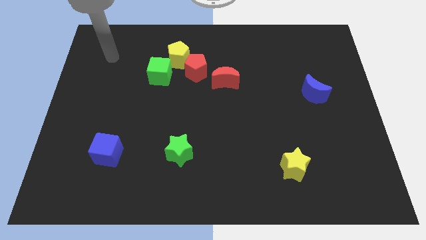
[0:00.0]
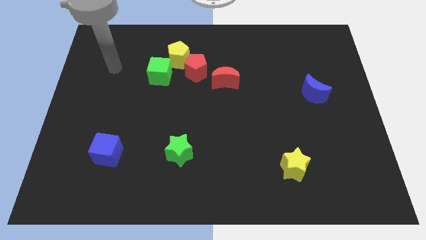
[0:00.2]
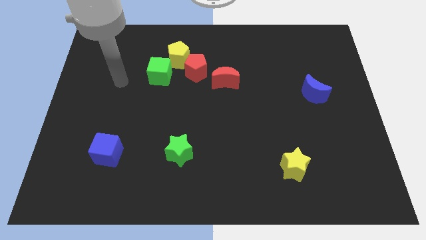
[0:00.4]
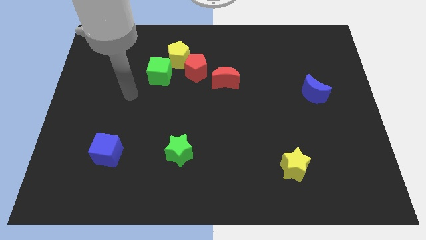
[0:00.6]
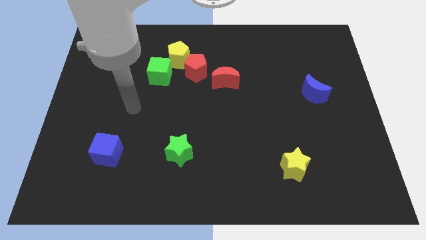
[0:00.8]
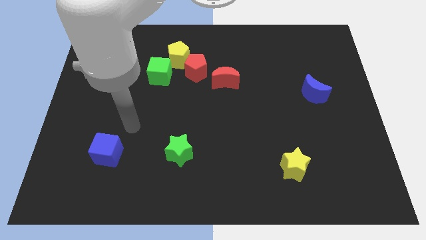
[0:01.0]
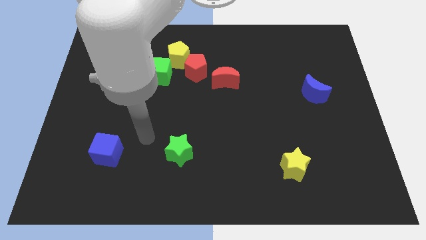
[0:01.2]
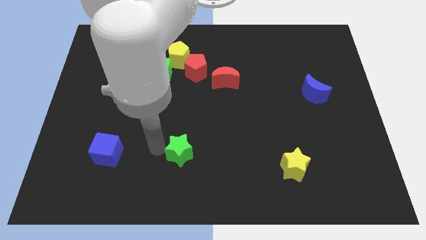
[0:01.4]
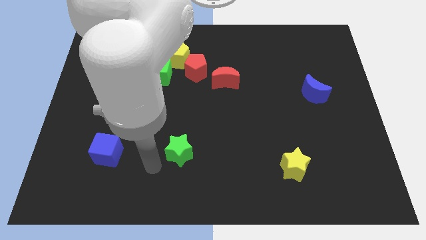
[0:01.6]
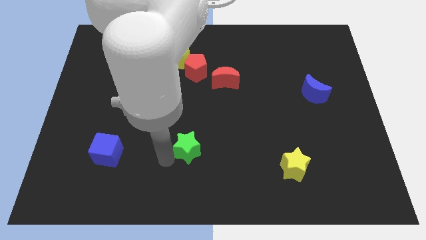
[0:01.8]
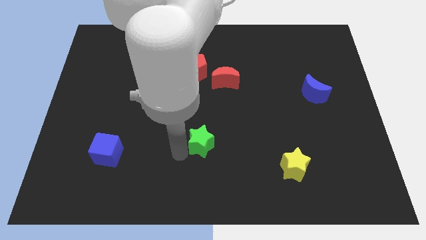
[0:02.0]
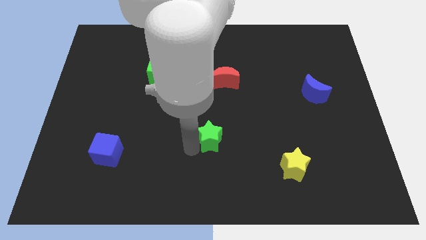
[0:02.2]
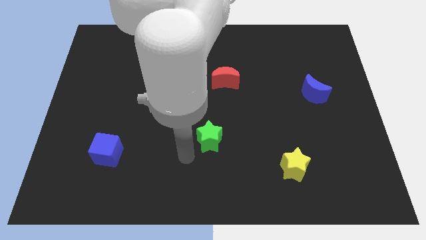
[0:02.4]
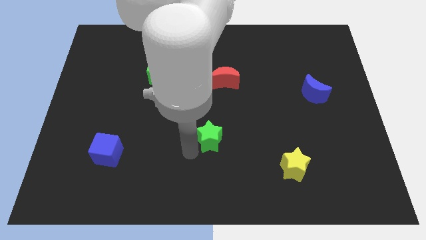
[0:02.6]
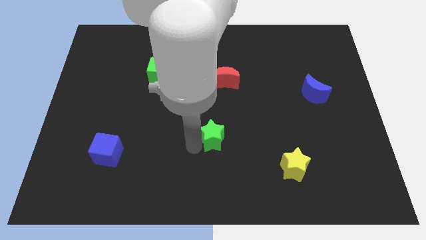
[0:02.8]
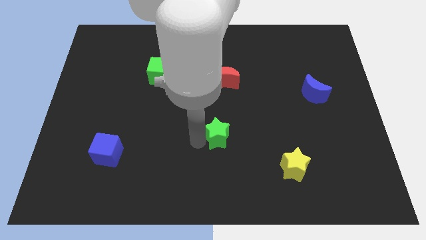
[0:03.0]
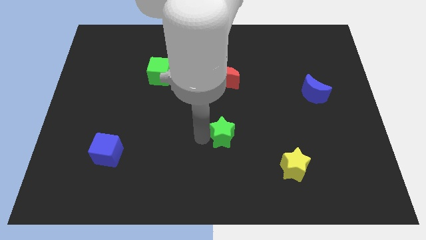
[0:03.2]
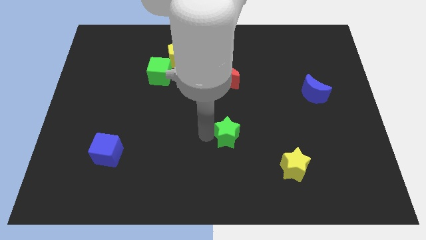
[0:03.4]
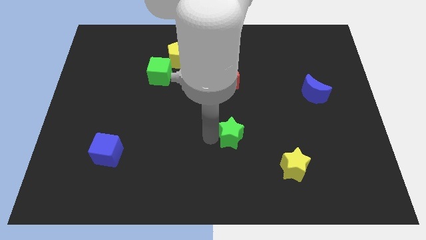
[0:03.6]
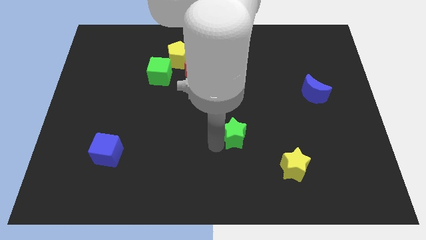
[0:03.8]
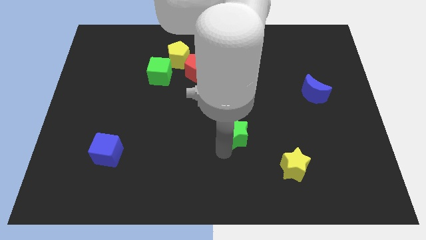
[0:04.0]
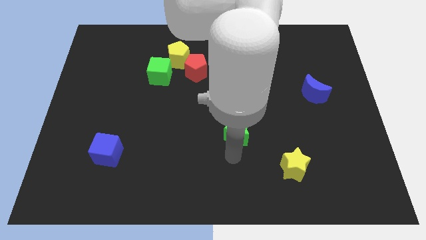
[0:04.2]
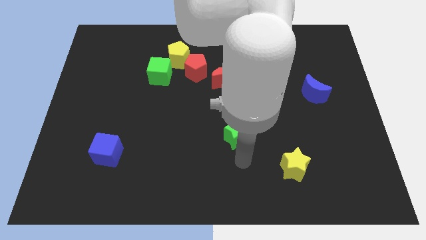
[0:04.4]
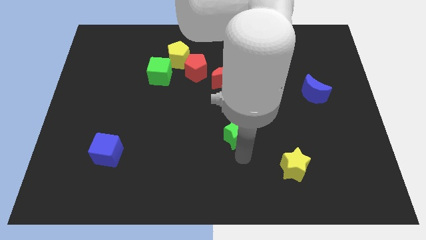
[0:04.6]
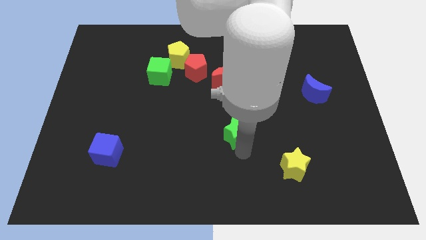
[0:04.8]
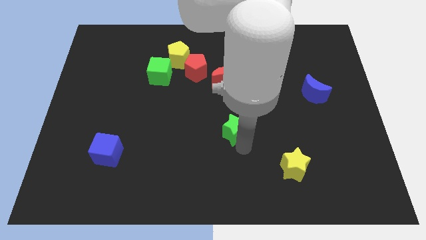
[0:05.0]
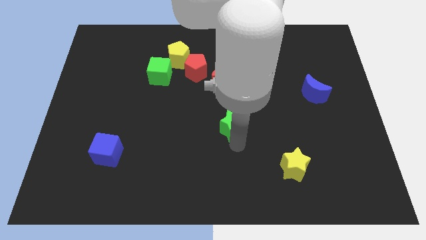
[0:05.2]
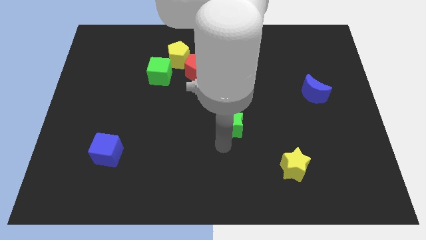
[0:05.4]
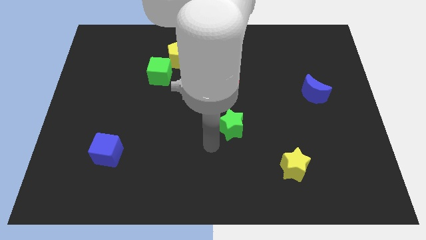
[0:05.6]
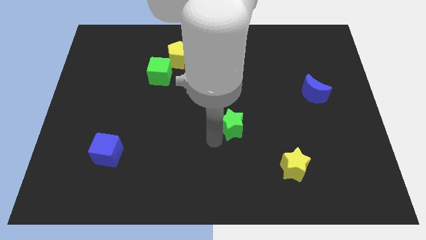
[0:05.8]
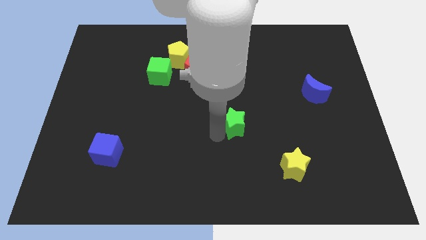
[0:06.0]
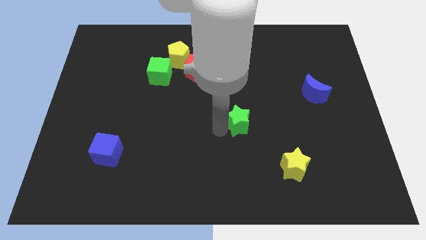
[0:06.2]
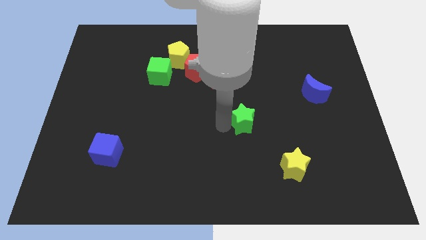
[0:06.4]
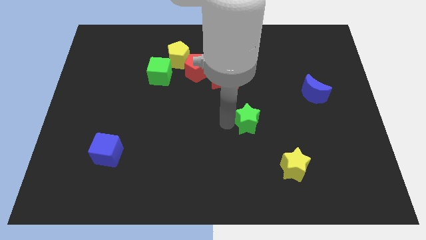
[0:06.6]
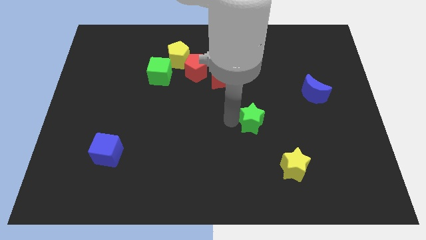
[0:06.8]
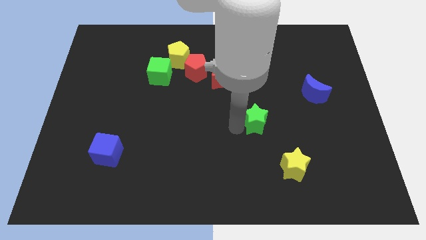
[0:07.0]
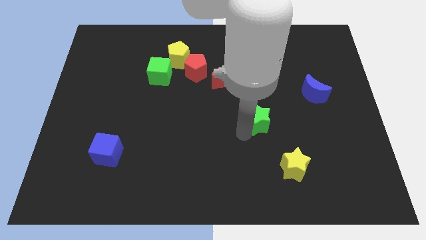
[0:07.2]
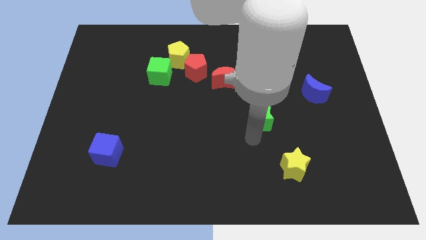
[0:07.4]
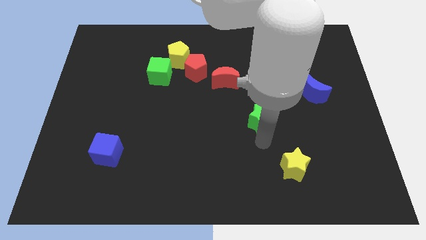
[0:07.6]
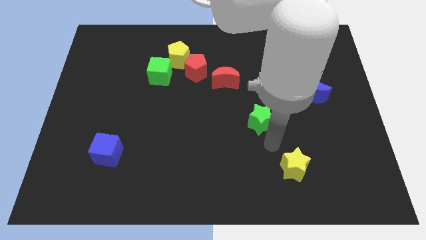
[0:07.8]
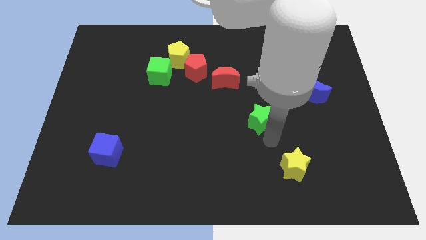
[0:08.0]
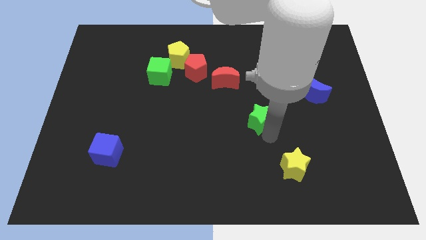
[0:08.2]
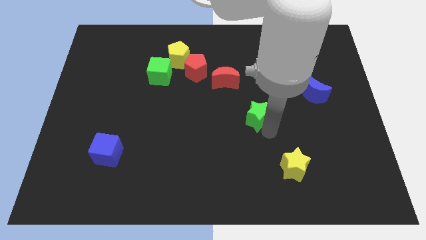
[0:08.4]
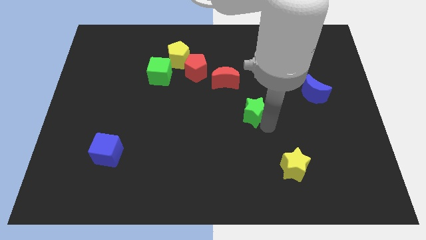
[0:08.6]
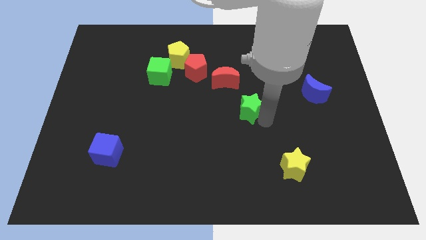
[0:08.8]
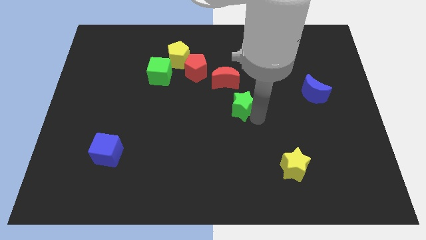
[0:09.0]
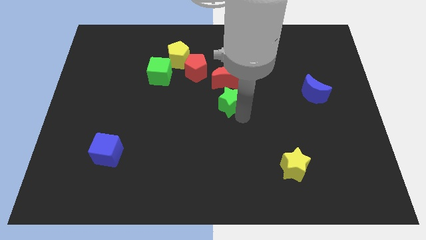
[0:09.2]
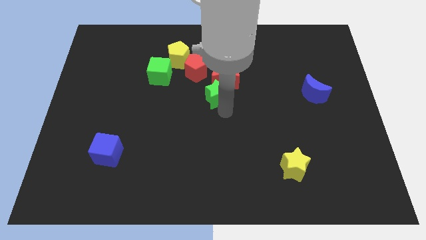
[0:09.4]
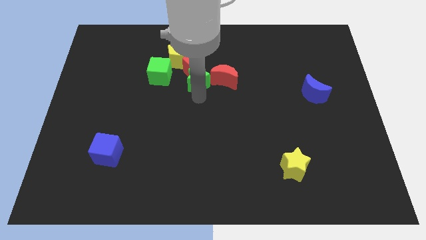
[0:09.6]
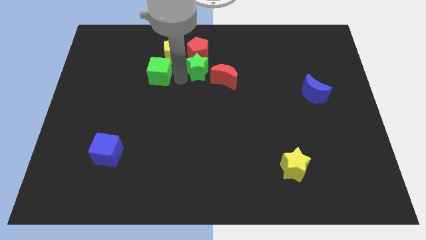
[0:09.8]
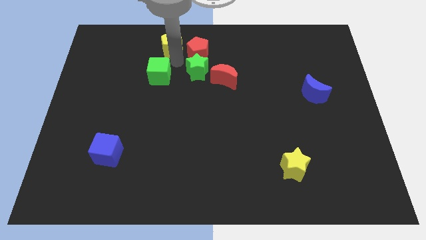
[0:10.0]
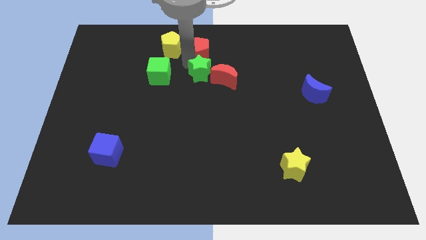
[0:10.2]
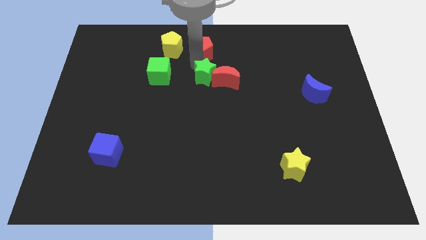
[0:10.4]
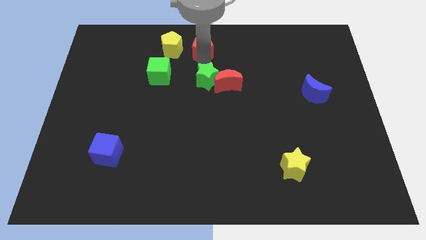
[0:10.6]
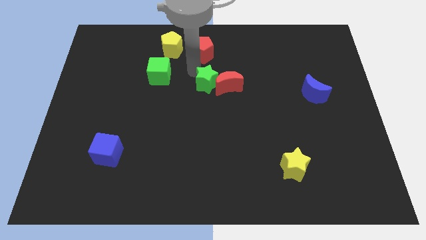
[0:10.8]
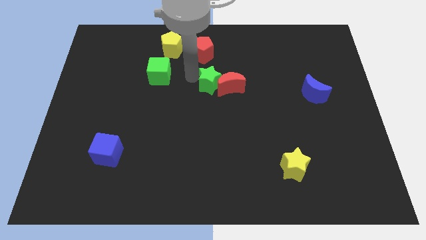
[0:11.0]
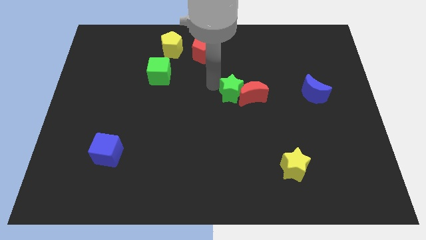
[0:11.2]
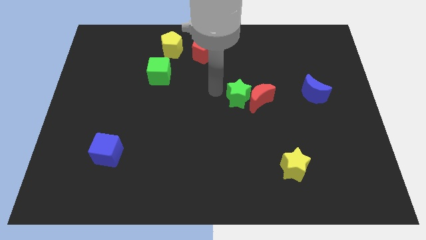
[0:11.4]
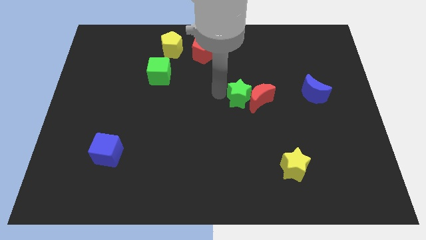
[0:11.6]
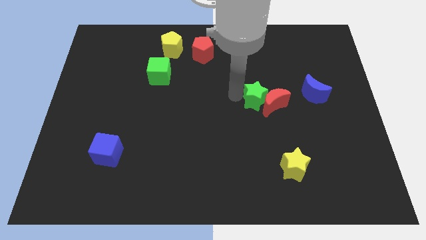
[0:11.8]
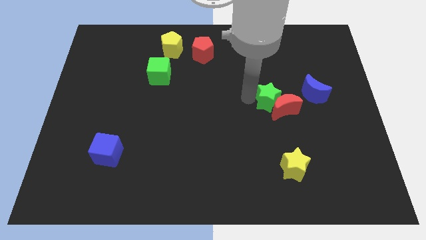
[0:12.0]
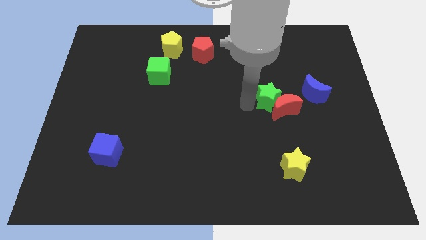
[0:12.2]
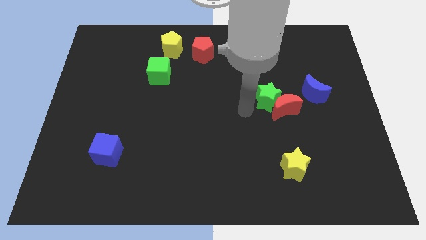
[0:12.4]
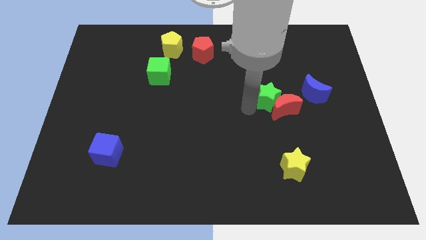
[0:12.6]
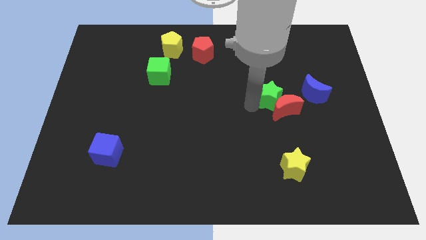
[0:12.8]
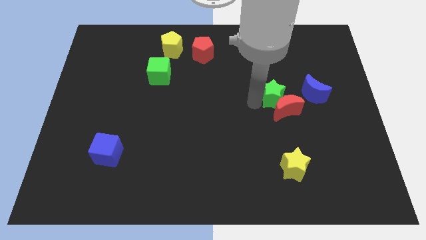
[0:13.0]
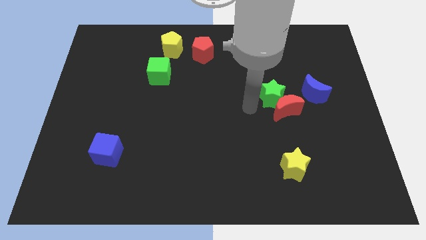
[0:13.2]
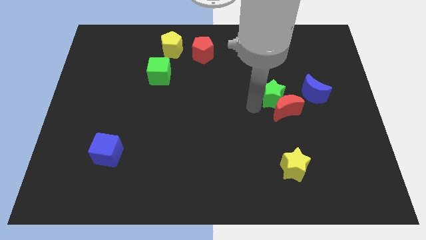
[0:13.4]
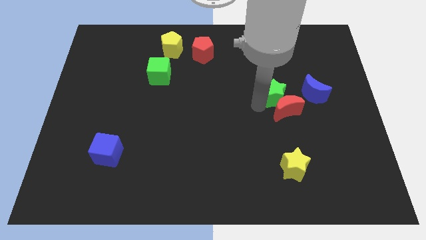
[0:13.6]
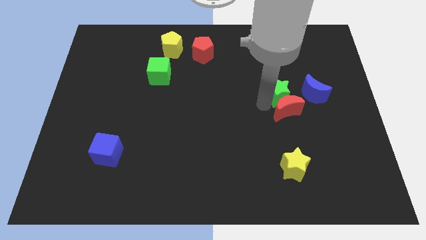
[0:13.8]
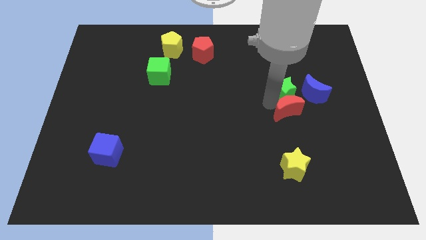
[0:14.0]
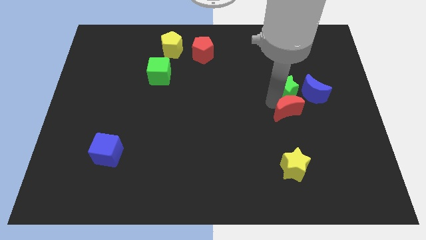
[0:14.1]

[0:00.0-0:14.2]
move the green star to the top left side of the blue moon
